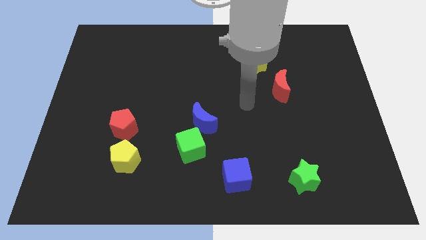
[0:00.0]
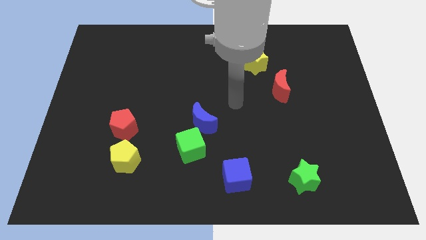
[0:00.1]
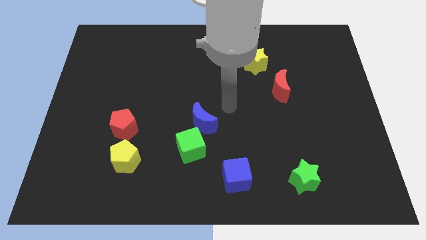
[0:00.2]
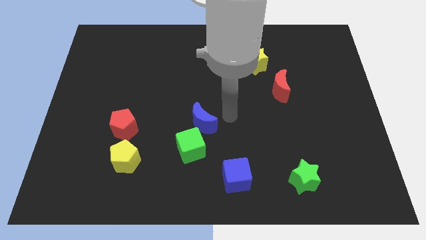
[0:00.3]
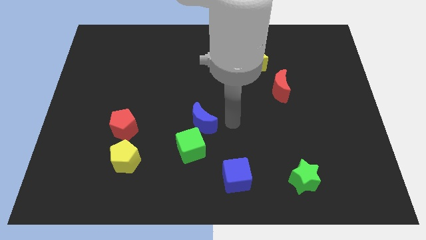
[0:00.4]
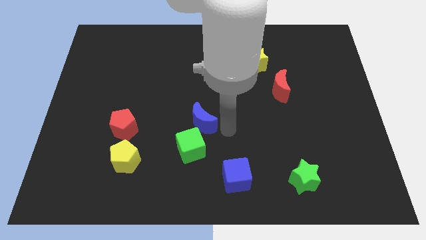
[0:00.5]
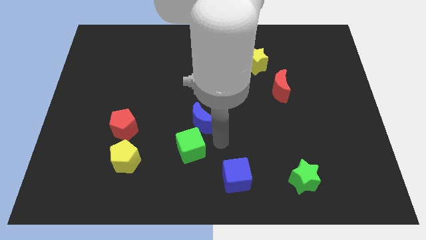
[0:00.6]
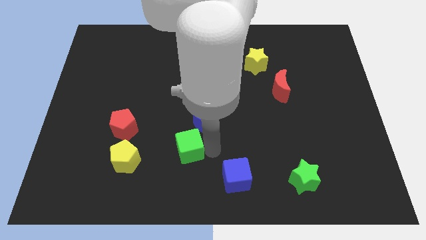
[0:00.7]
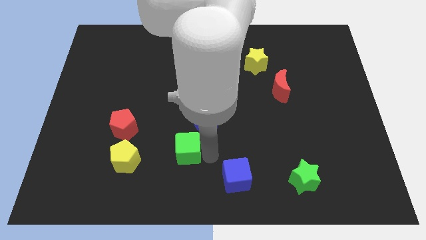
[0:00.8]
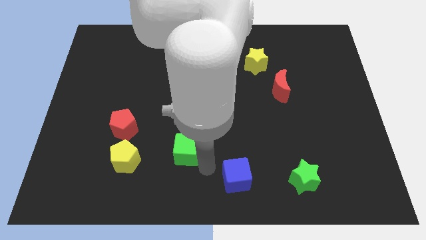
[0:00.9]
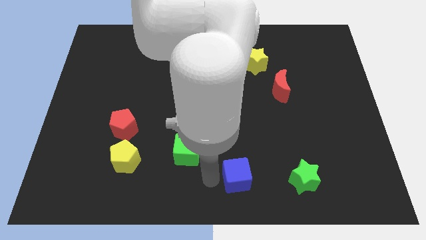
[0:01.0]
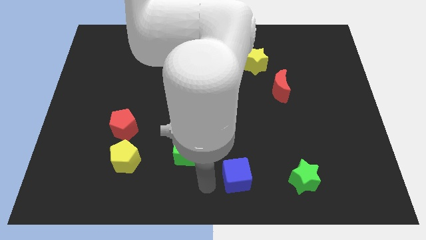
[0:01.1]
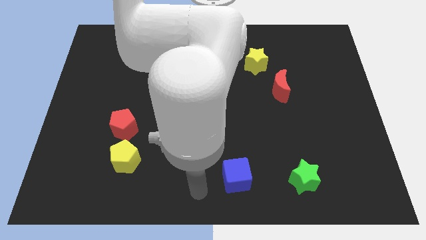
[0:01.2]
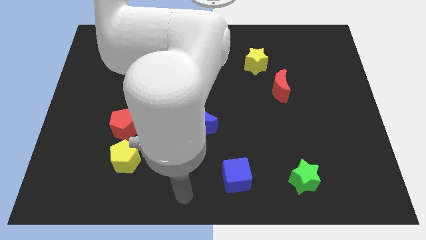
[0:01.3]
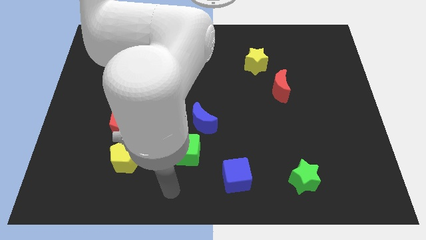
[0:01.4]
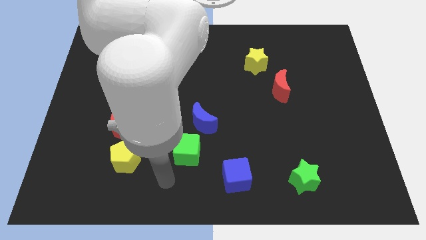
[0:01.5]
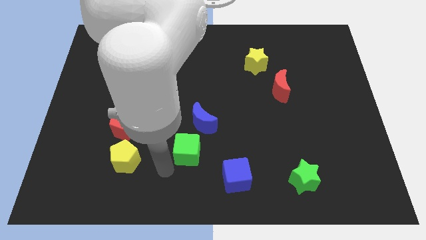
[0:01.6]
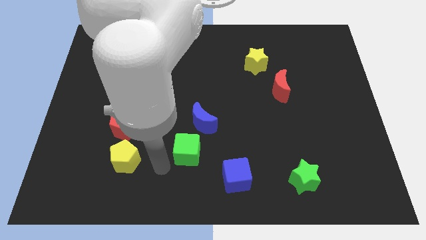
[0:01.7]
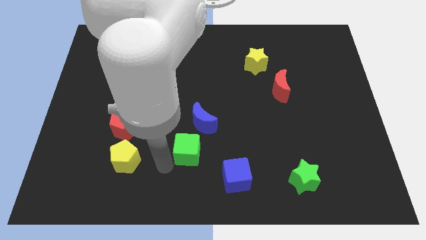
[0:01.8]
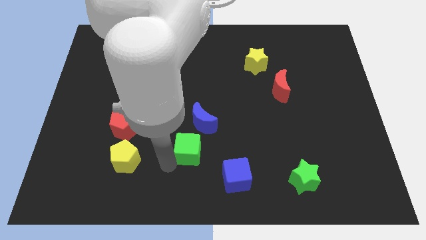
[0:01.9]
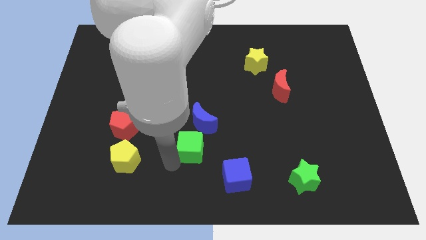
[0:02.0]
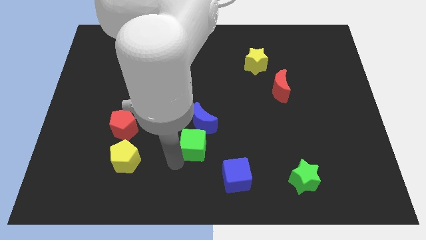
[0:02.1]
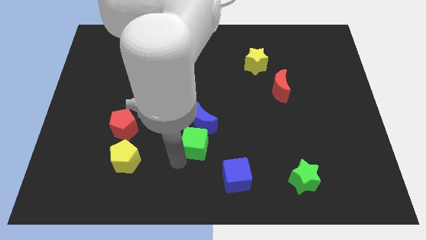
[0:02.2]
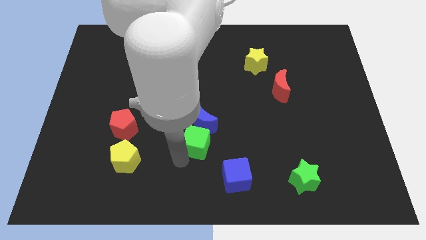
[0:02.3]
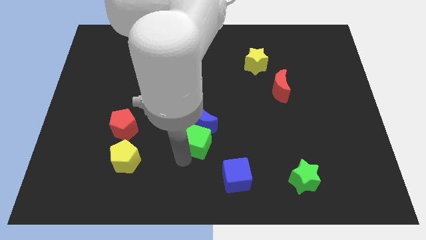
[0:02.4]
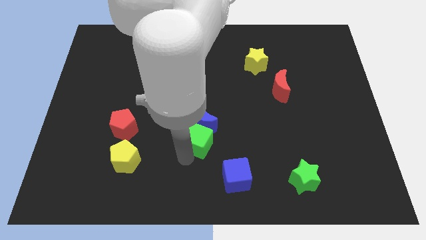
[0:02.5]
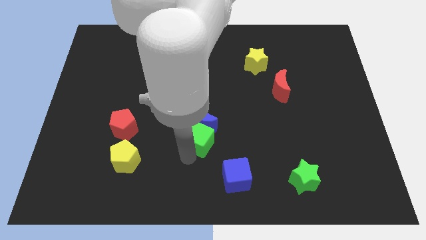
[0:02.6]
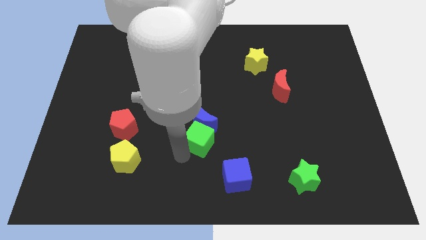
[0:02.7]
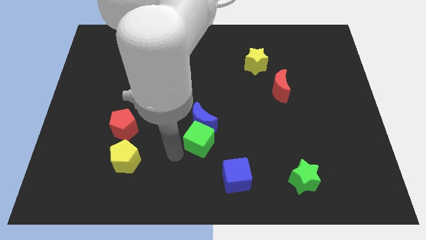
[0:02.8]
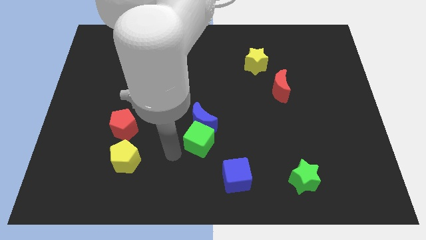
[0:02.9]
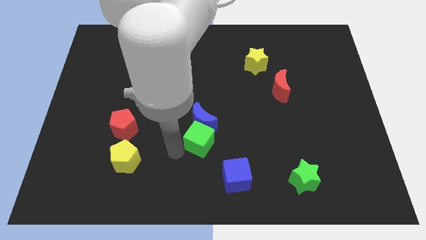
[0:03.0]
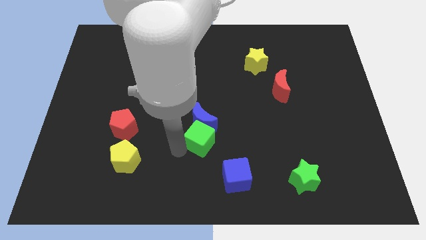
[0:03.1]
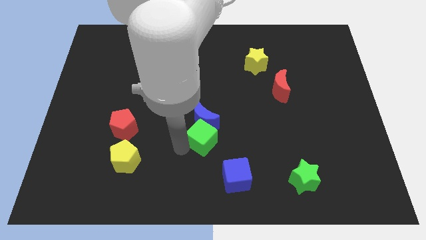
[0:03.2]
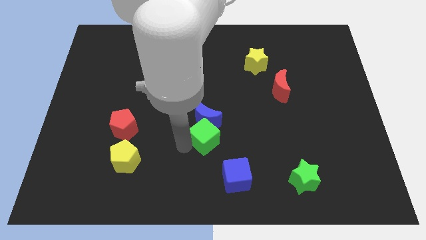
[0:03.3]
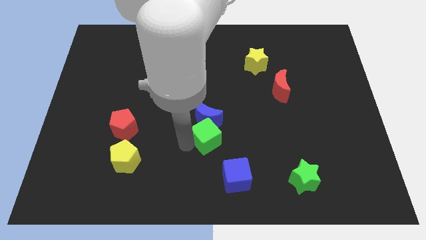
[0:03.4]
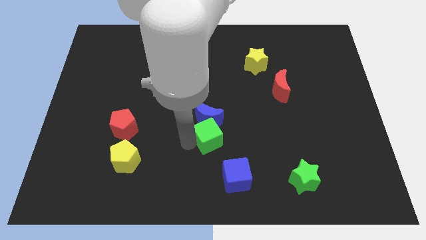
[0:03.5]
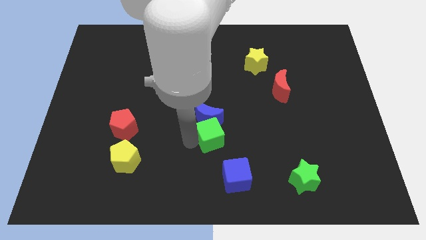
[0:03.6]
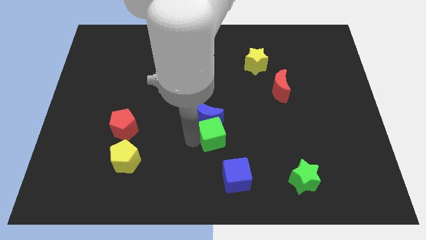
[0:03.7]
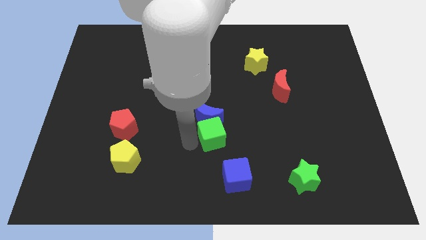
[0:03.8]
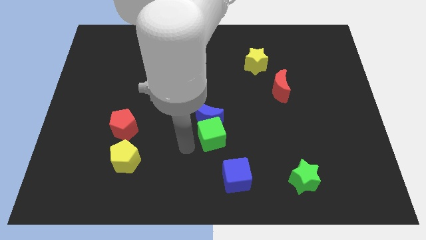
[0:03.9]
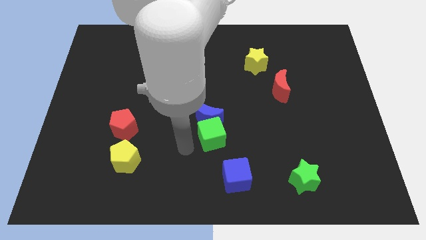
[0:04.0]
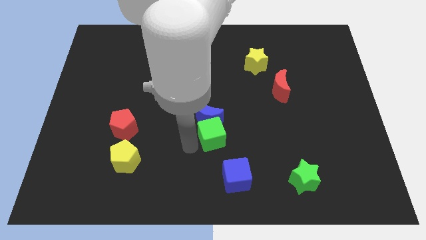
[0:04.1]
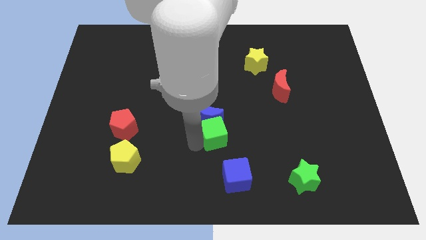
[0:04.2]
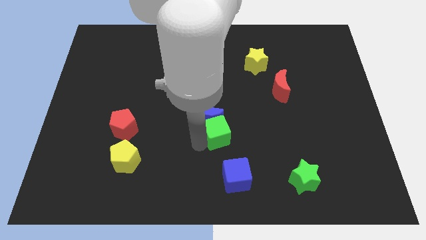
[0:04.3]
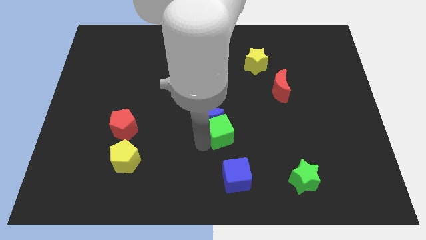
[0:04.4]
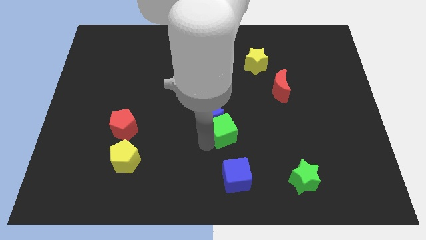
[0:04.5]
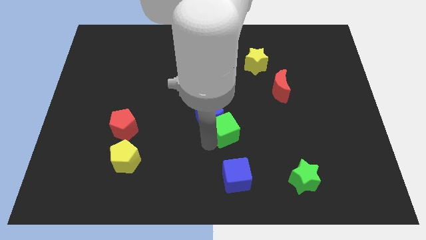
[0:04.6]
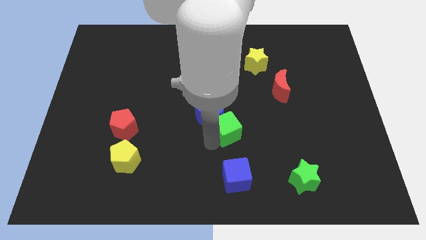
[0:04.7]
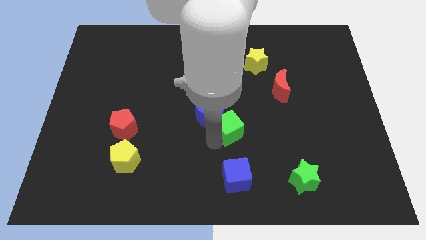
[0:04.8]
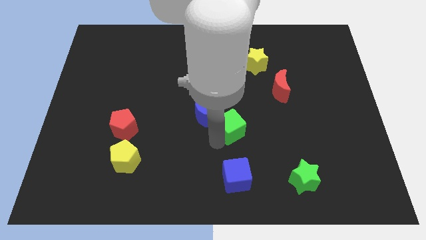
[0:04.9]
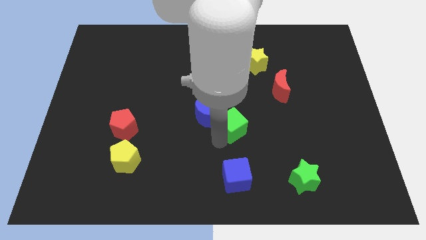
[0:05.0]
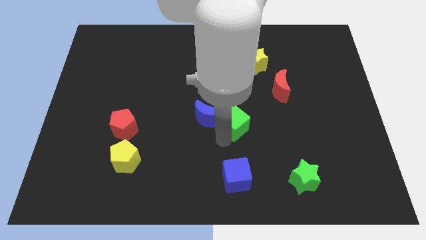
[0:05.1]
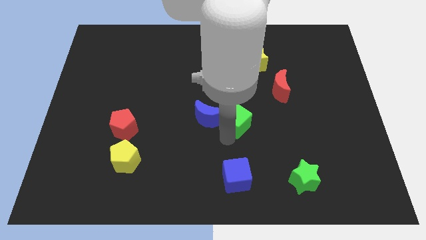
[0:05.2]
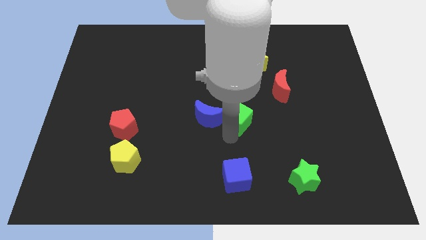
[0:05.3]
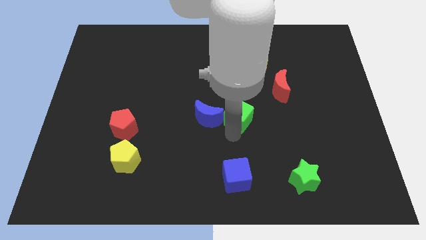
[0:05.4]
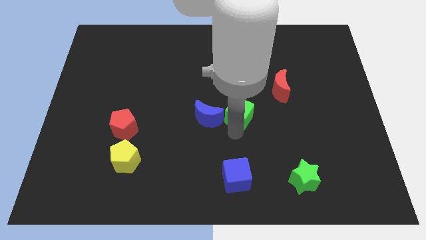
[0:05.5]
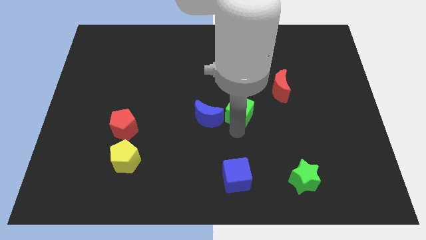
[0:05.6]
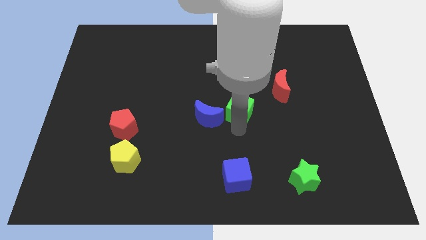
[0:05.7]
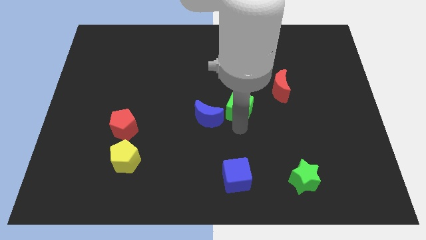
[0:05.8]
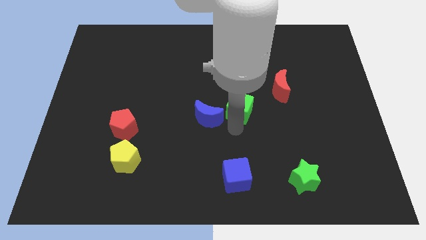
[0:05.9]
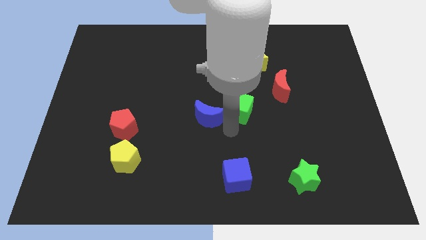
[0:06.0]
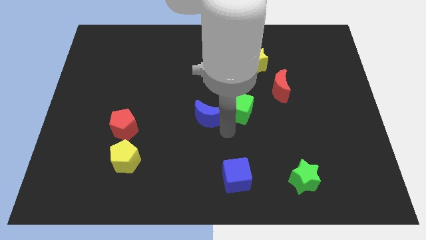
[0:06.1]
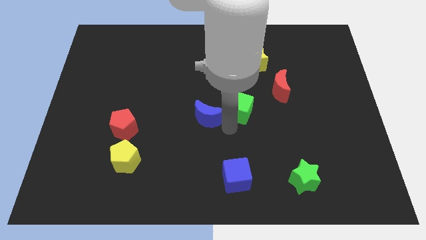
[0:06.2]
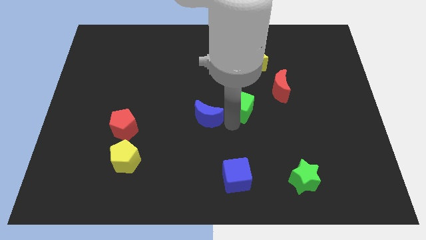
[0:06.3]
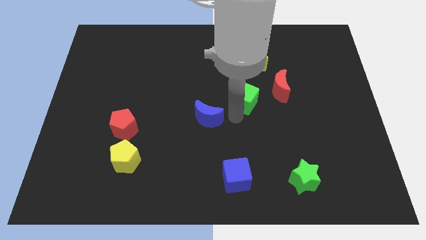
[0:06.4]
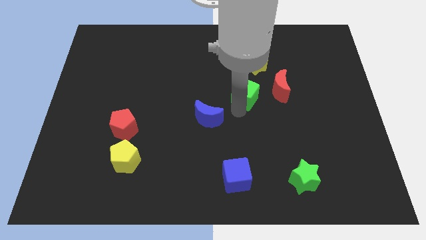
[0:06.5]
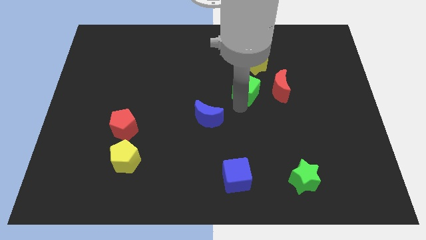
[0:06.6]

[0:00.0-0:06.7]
slide the green cube upwards and then right

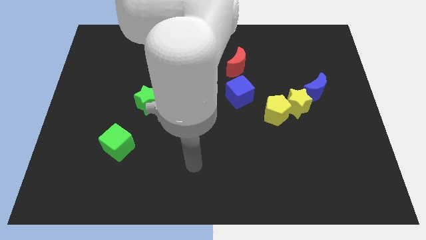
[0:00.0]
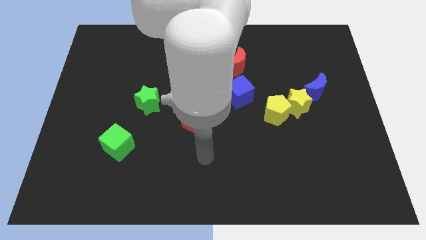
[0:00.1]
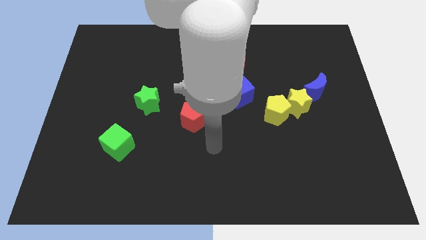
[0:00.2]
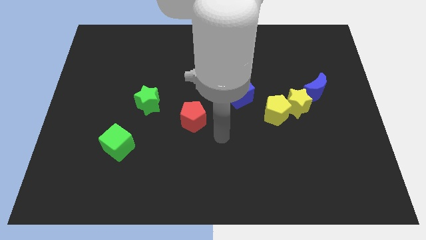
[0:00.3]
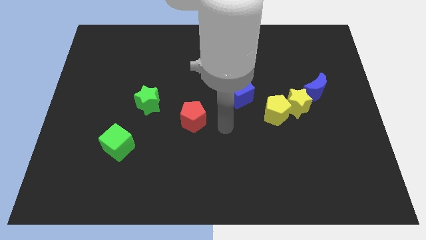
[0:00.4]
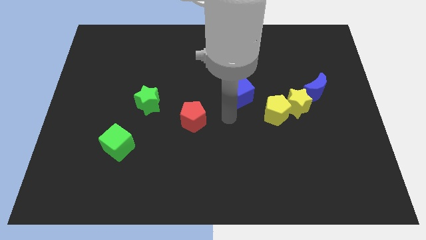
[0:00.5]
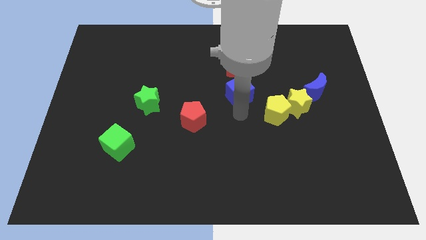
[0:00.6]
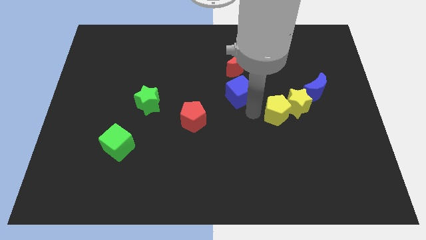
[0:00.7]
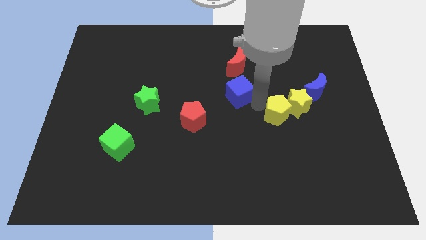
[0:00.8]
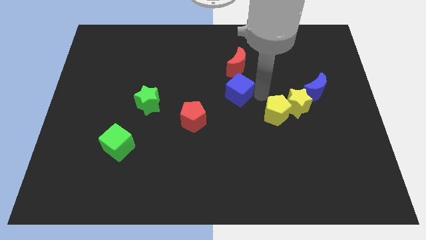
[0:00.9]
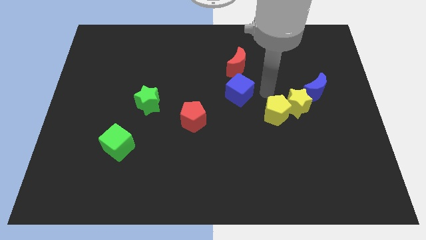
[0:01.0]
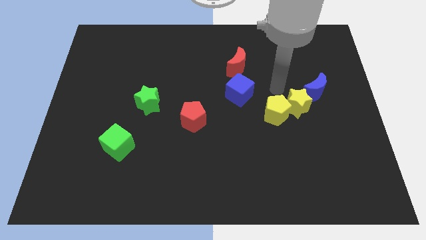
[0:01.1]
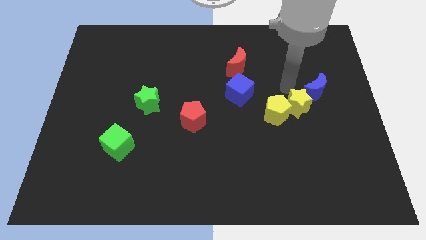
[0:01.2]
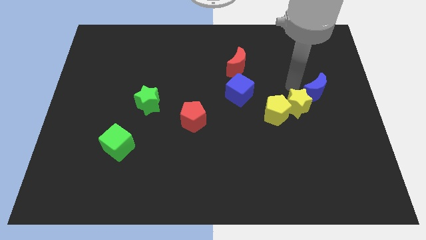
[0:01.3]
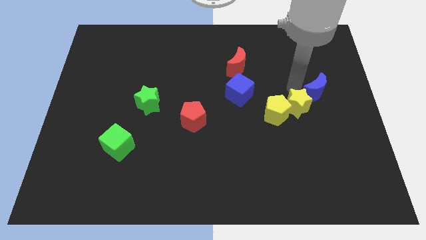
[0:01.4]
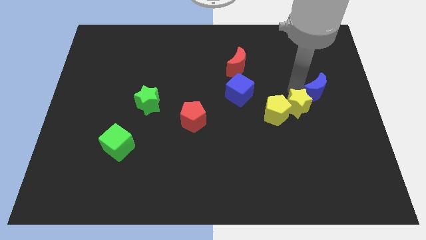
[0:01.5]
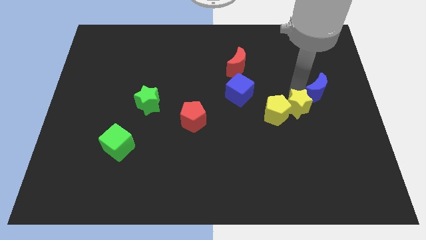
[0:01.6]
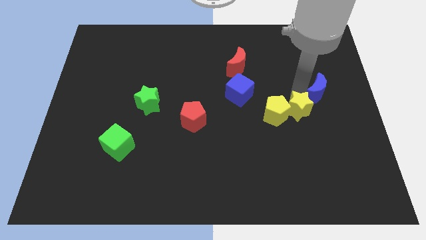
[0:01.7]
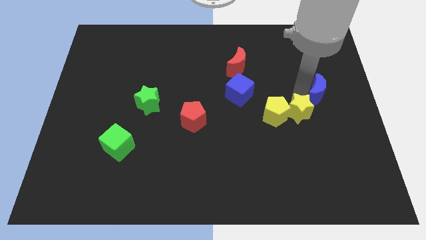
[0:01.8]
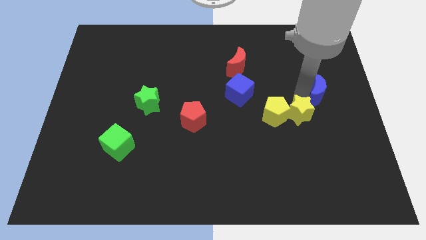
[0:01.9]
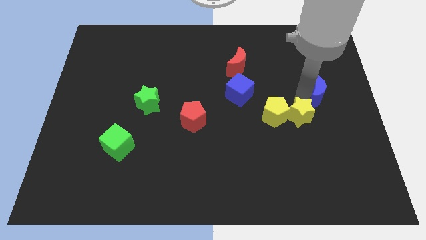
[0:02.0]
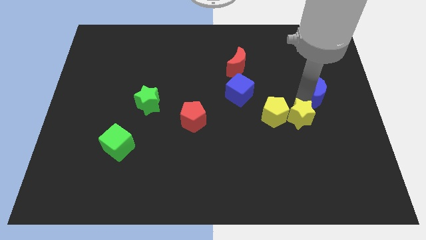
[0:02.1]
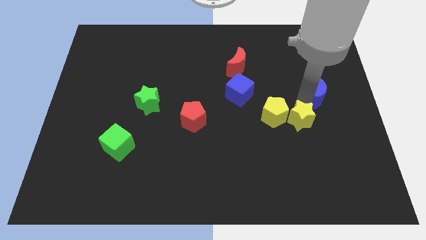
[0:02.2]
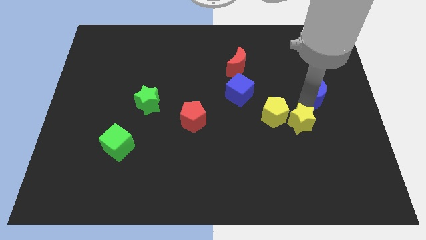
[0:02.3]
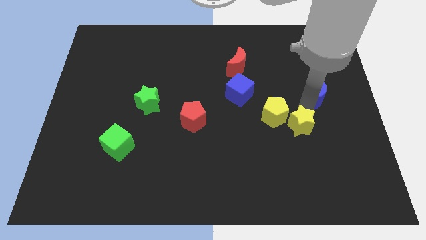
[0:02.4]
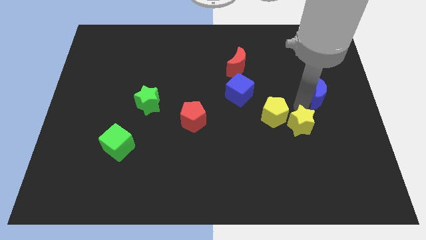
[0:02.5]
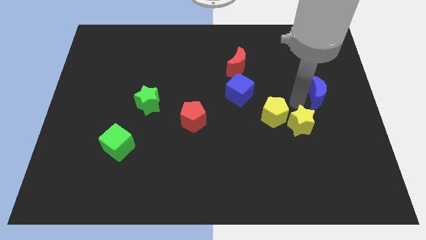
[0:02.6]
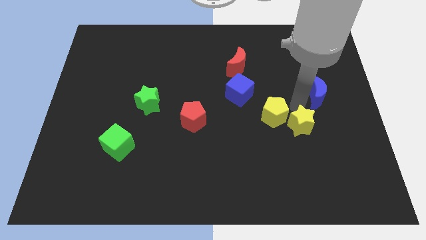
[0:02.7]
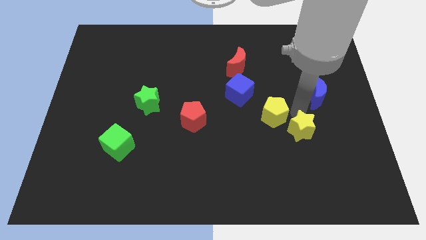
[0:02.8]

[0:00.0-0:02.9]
move the yellow star slightly downwards
